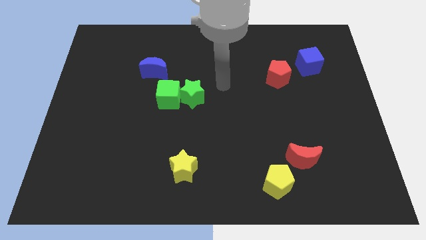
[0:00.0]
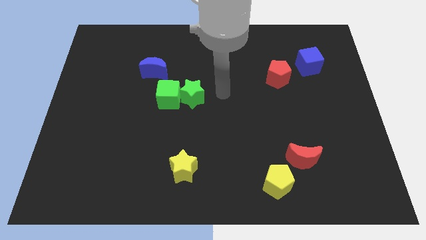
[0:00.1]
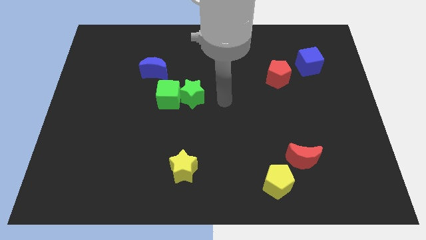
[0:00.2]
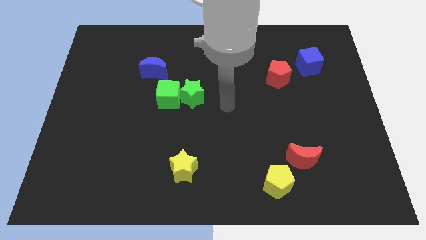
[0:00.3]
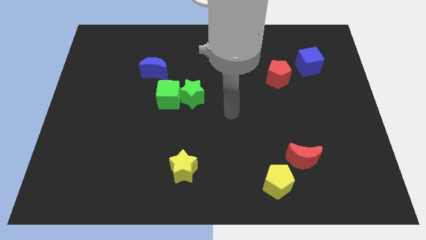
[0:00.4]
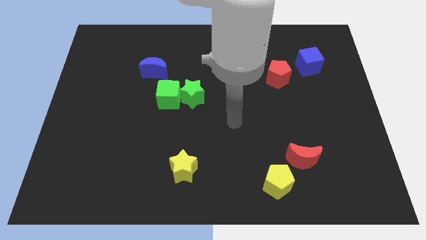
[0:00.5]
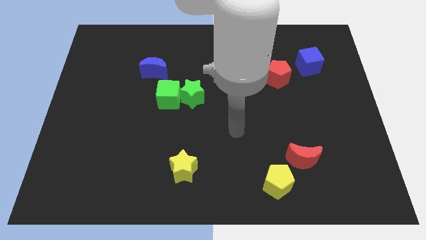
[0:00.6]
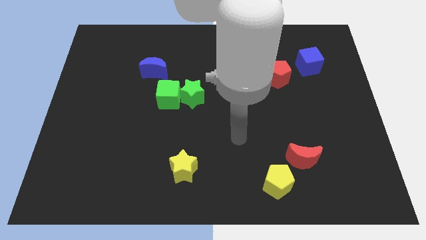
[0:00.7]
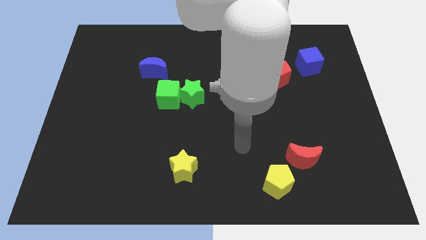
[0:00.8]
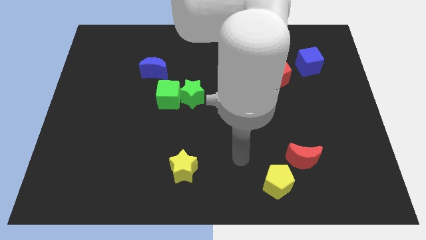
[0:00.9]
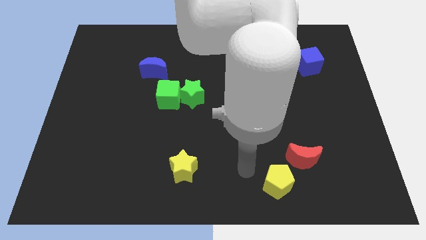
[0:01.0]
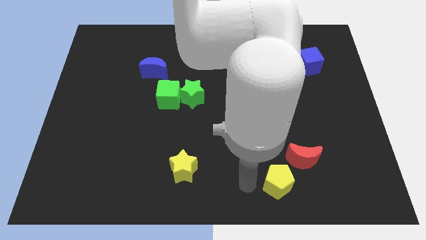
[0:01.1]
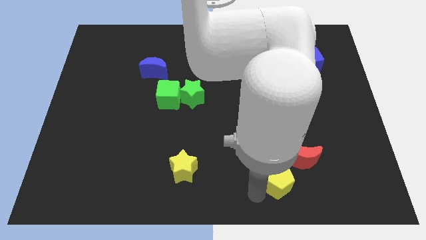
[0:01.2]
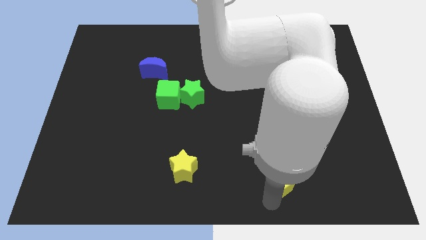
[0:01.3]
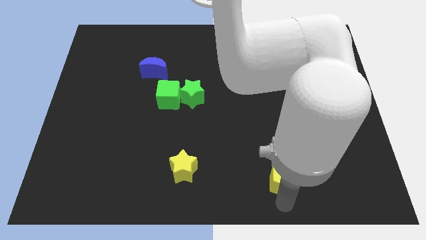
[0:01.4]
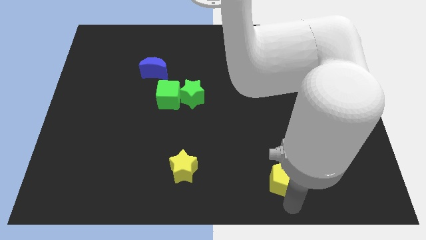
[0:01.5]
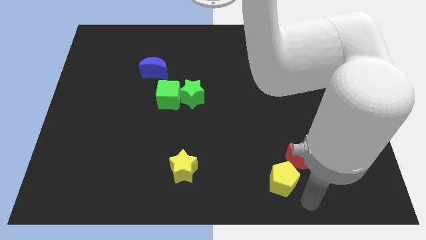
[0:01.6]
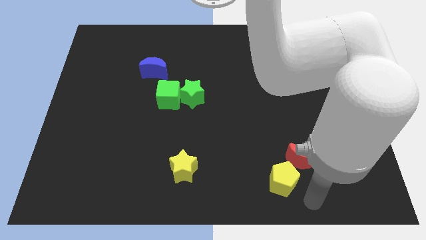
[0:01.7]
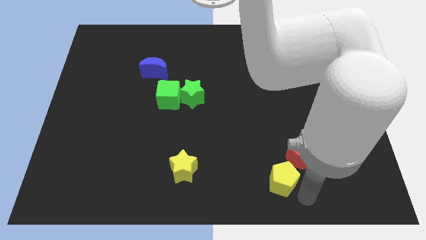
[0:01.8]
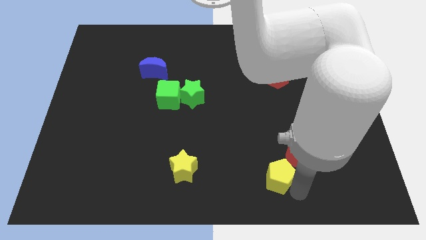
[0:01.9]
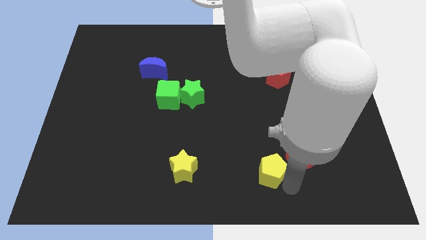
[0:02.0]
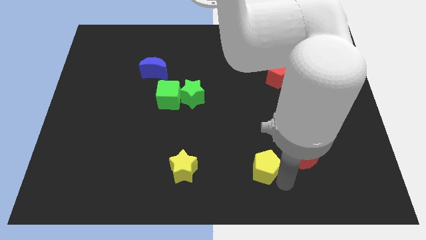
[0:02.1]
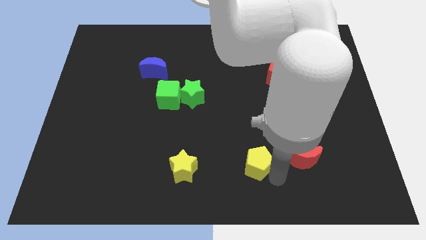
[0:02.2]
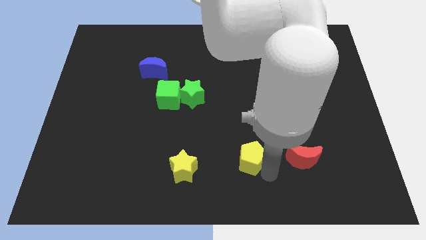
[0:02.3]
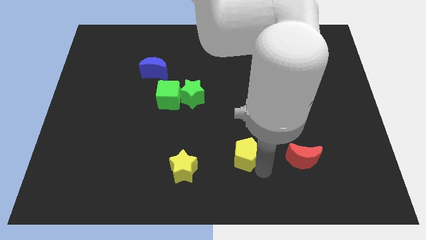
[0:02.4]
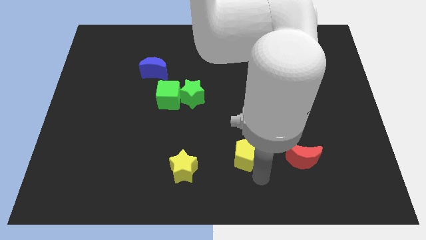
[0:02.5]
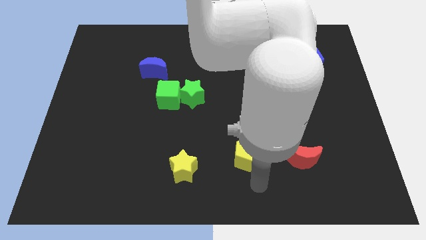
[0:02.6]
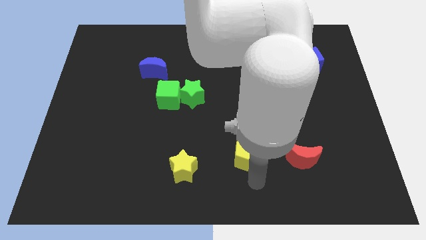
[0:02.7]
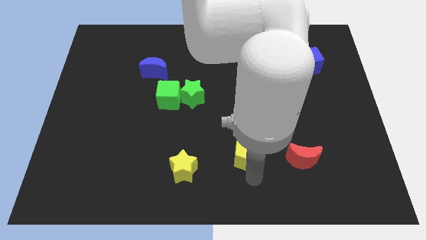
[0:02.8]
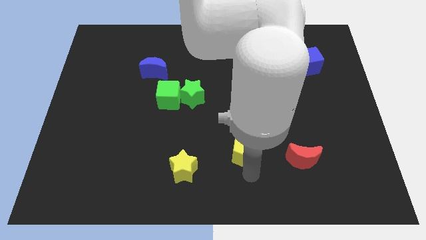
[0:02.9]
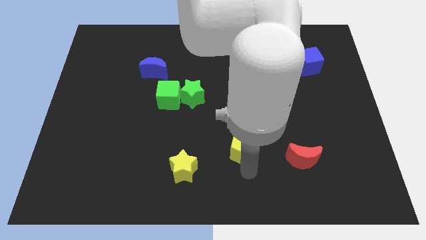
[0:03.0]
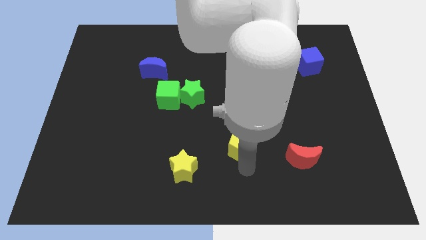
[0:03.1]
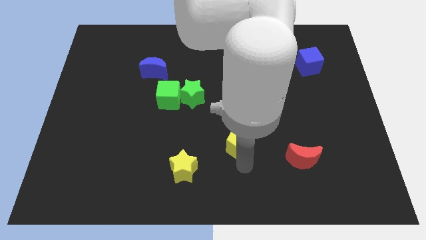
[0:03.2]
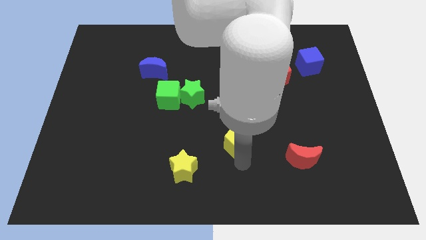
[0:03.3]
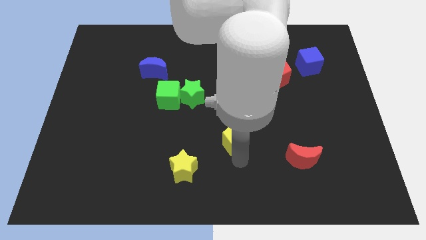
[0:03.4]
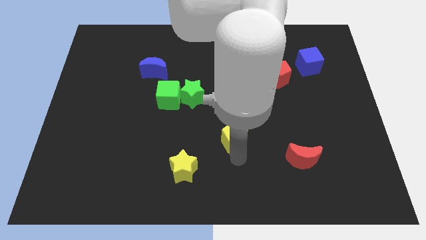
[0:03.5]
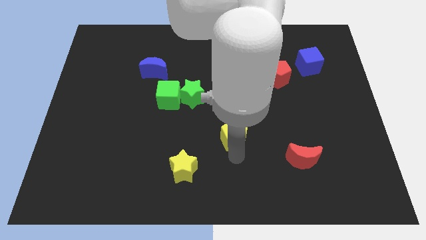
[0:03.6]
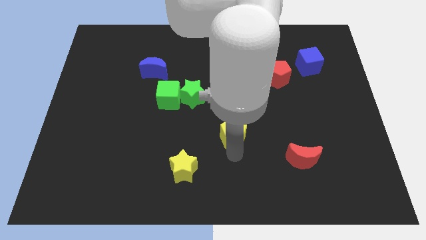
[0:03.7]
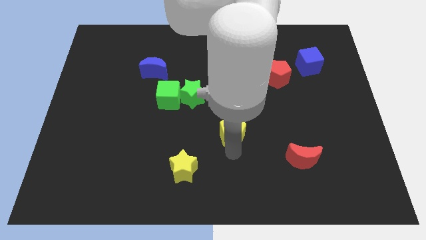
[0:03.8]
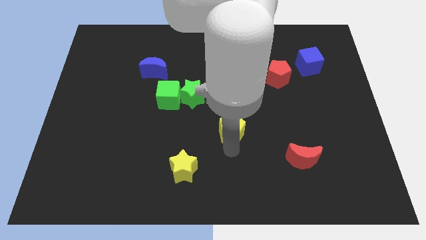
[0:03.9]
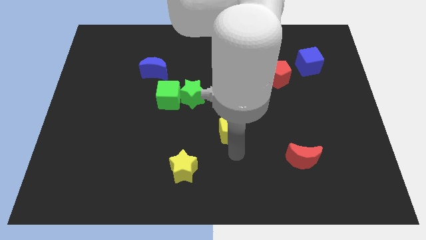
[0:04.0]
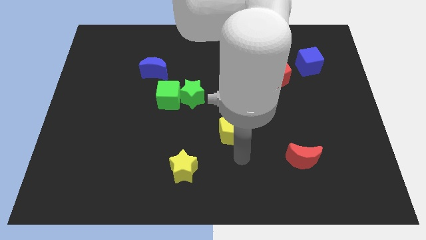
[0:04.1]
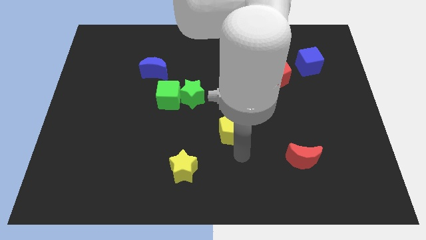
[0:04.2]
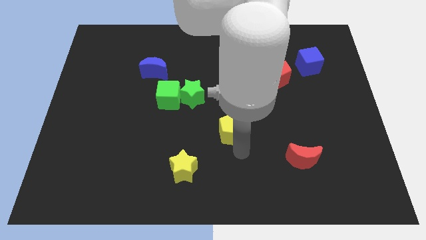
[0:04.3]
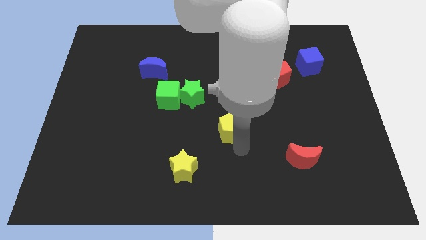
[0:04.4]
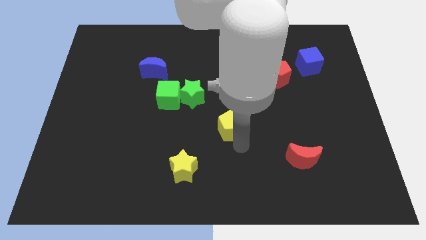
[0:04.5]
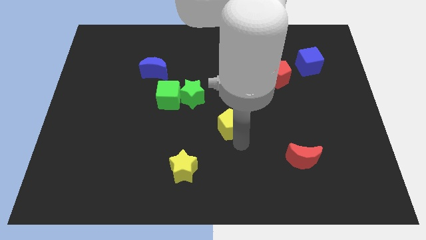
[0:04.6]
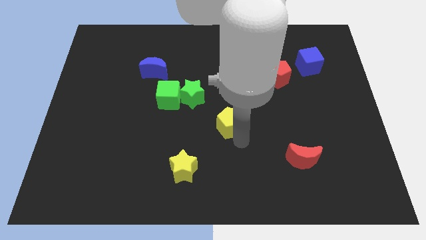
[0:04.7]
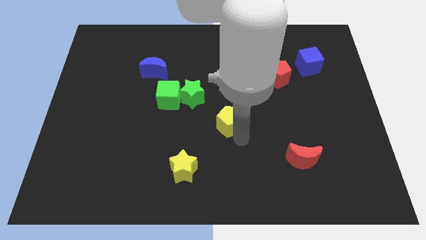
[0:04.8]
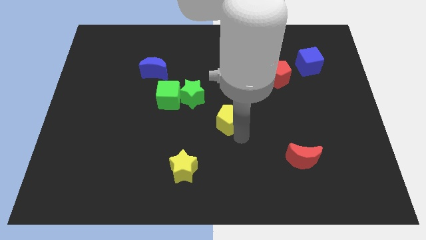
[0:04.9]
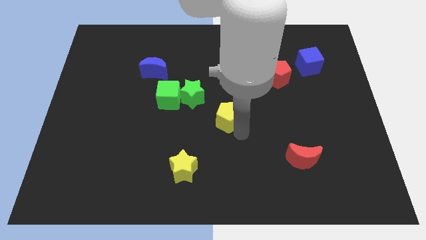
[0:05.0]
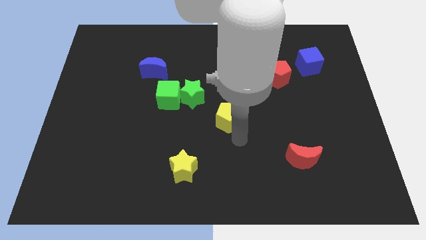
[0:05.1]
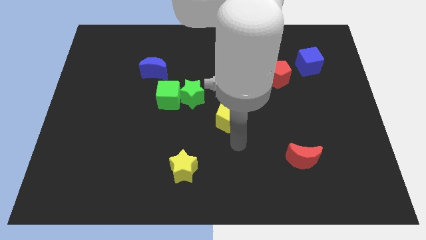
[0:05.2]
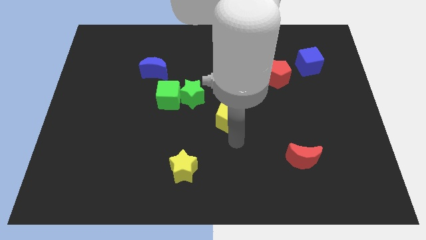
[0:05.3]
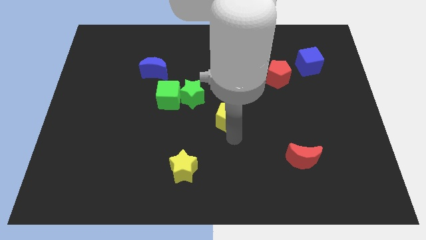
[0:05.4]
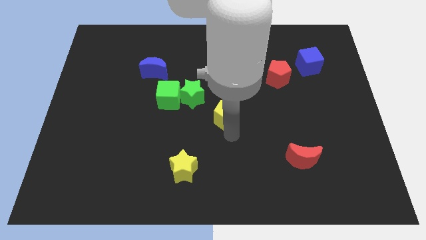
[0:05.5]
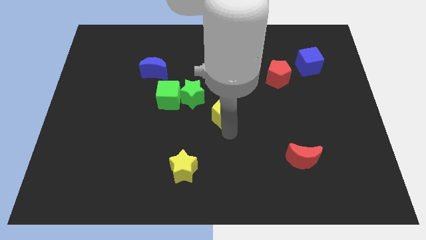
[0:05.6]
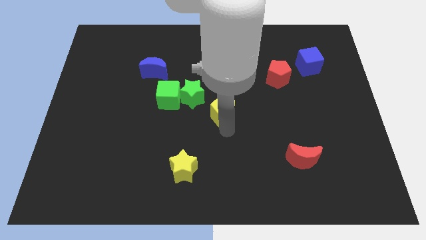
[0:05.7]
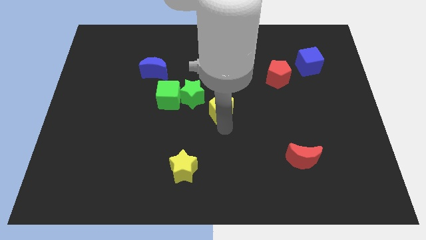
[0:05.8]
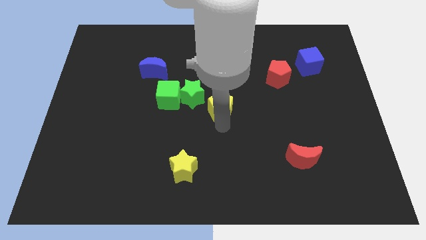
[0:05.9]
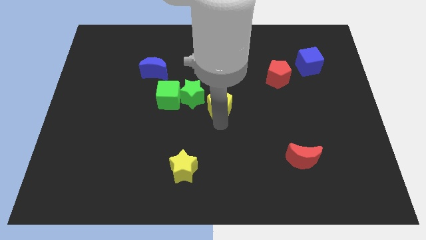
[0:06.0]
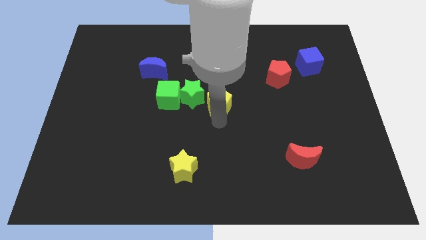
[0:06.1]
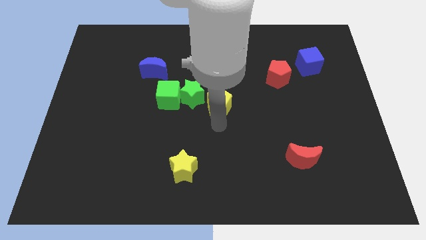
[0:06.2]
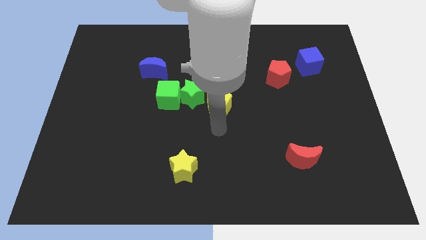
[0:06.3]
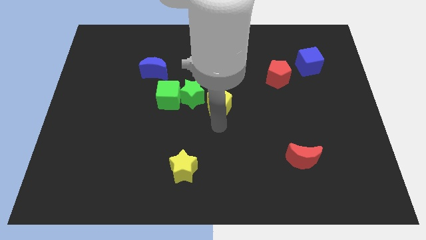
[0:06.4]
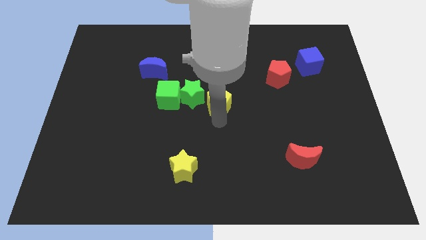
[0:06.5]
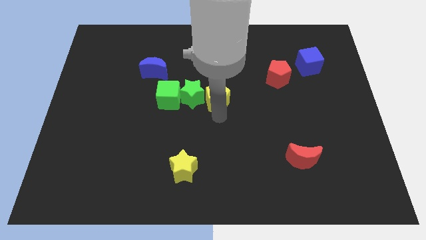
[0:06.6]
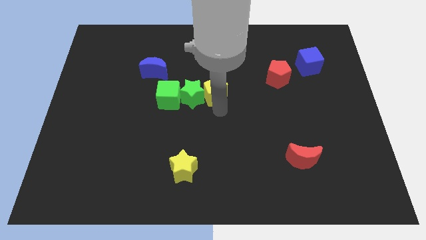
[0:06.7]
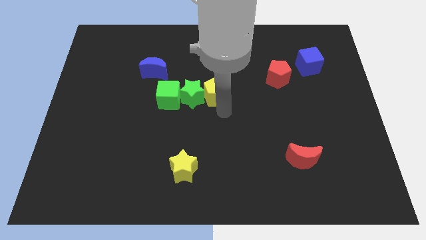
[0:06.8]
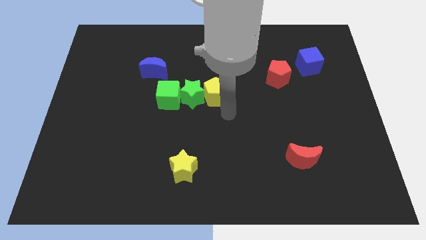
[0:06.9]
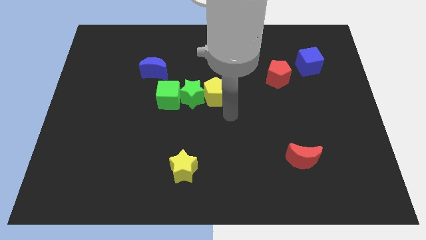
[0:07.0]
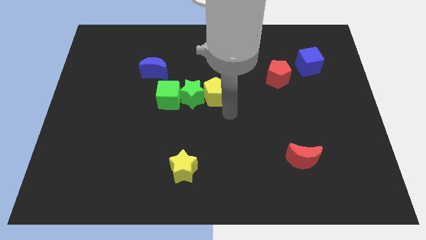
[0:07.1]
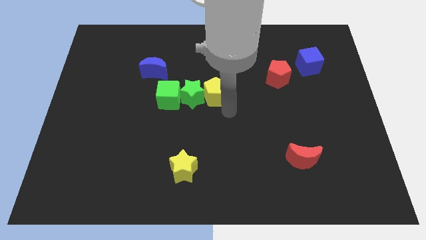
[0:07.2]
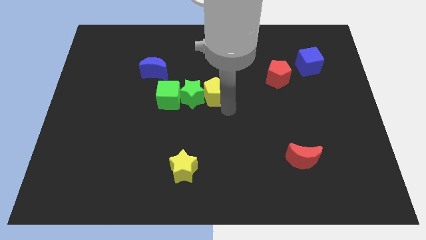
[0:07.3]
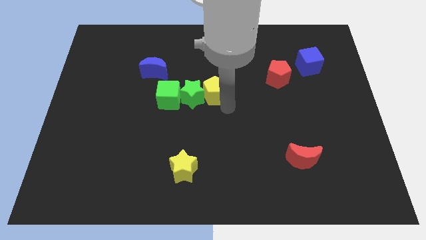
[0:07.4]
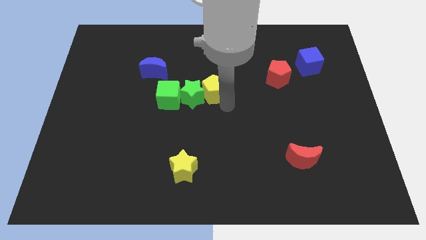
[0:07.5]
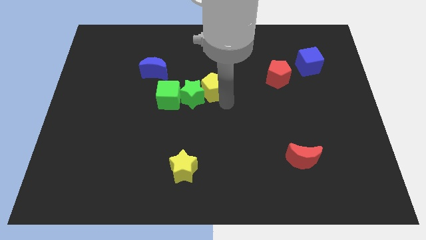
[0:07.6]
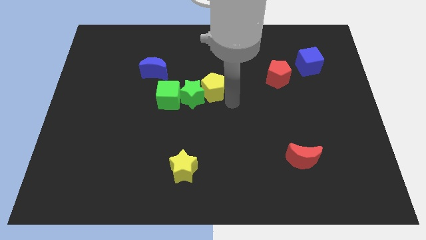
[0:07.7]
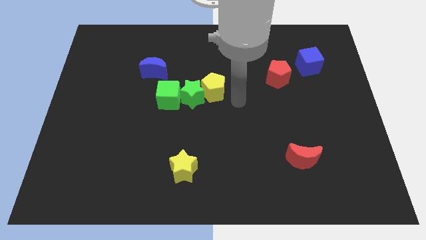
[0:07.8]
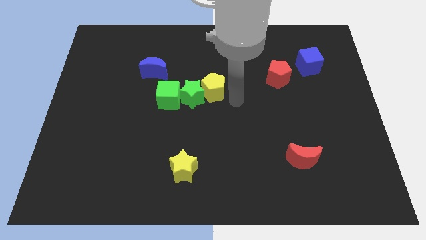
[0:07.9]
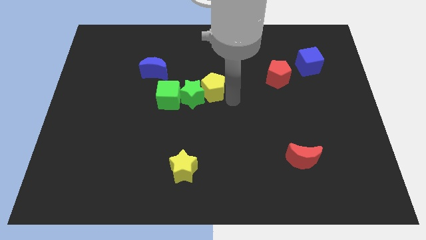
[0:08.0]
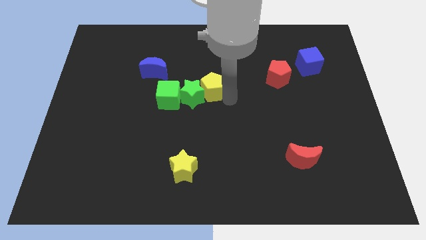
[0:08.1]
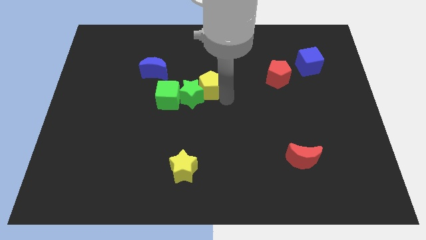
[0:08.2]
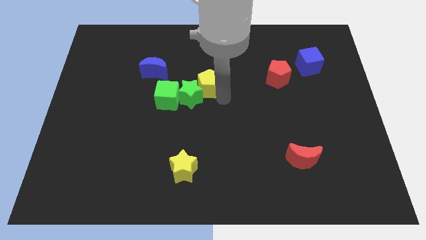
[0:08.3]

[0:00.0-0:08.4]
slide the yellow pentagon to the top right side of the green cube
